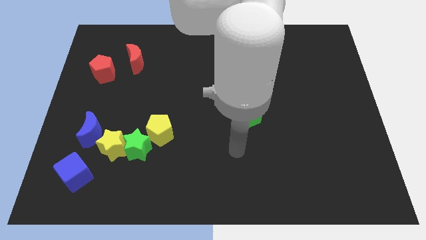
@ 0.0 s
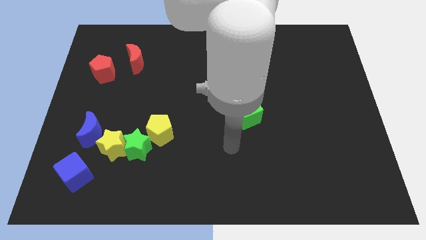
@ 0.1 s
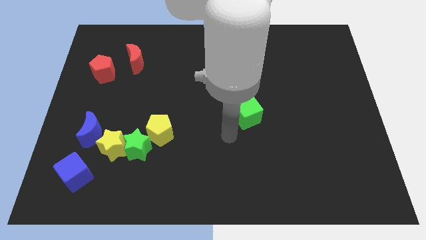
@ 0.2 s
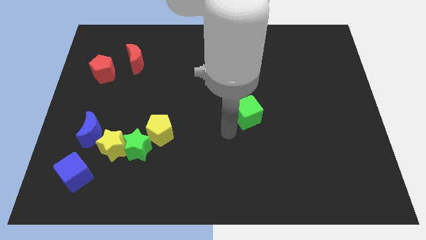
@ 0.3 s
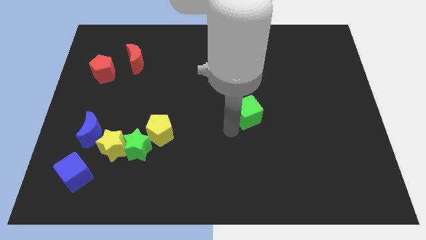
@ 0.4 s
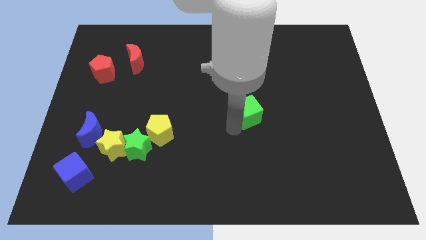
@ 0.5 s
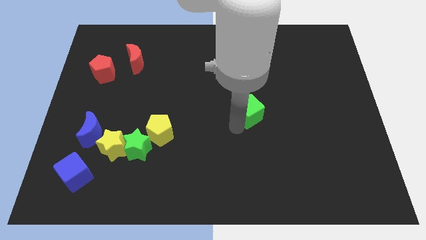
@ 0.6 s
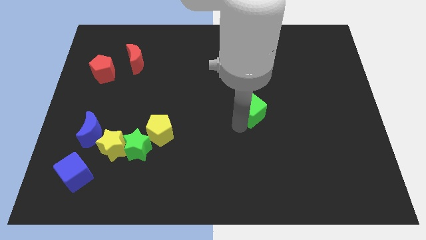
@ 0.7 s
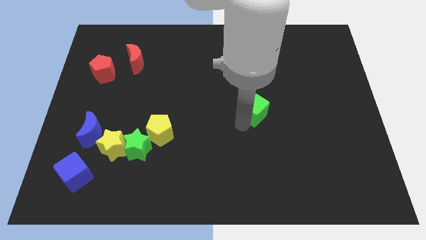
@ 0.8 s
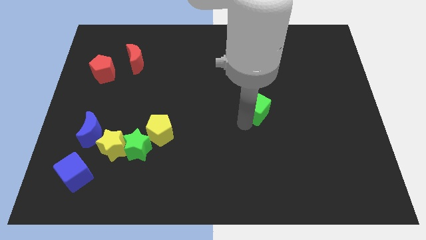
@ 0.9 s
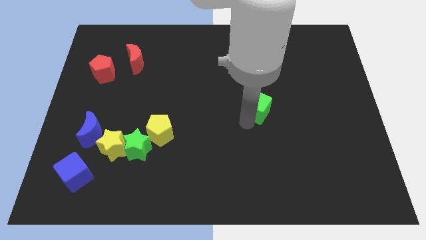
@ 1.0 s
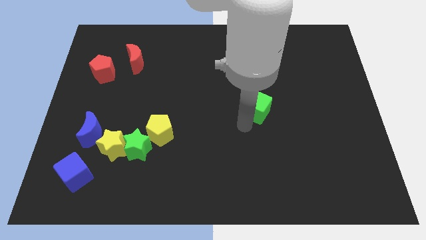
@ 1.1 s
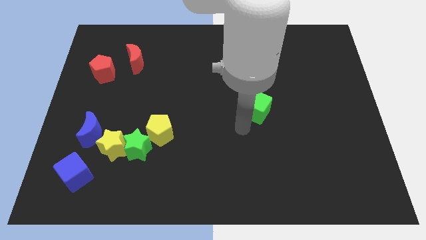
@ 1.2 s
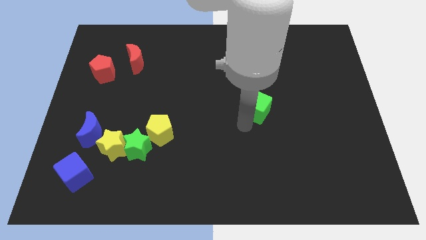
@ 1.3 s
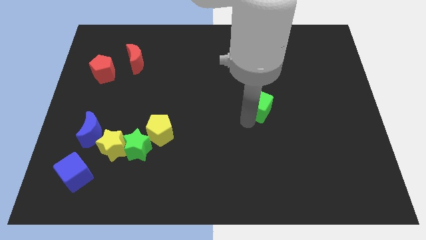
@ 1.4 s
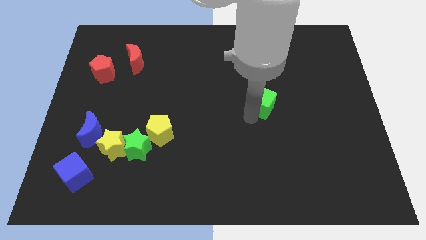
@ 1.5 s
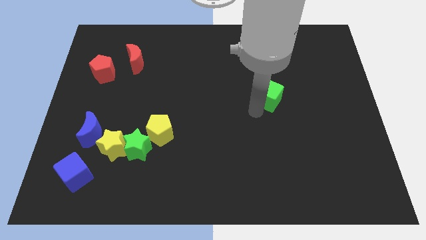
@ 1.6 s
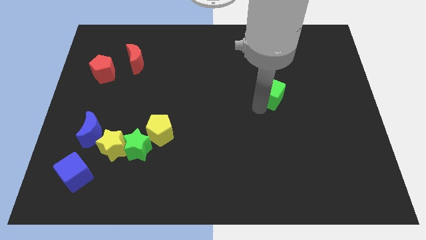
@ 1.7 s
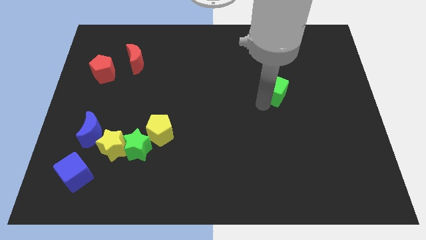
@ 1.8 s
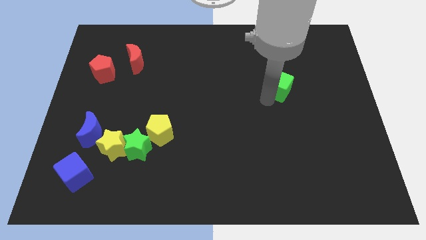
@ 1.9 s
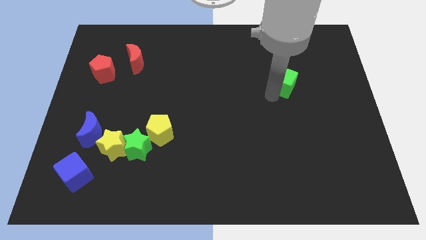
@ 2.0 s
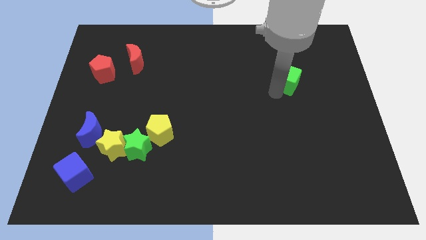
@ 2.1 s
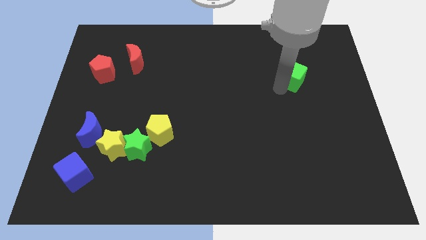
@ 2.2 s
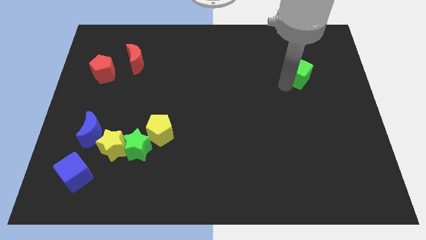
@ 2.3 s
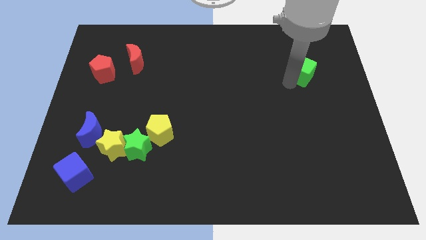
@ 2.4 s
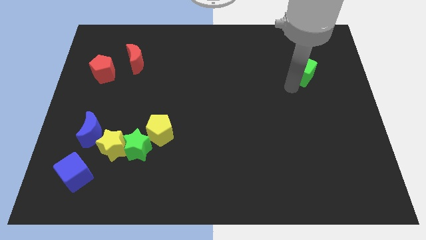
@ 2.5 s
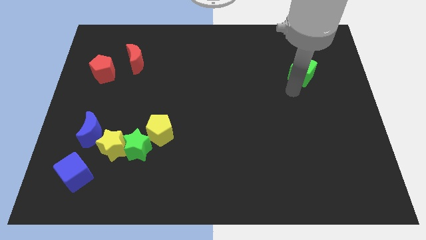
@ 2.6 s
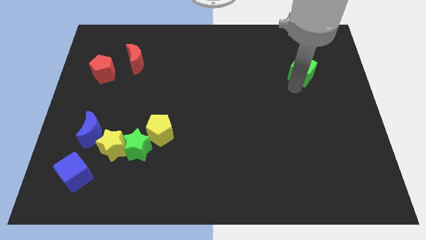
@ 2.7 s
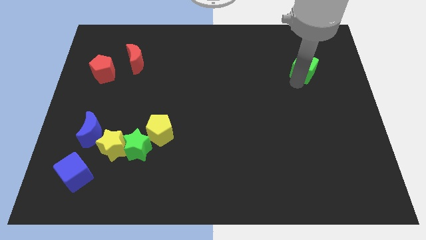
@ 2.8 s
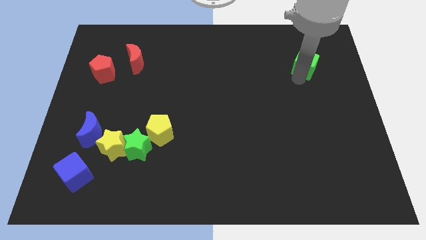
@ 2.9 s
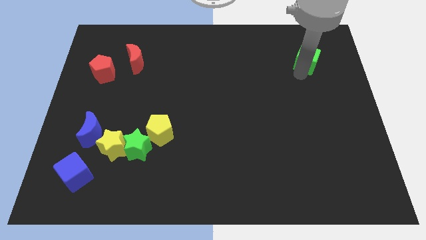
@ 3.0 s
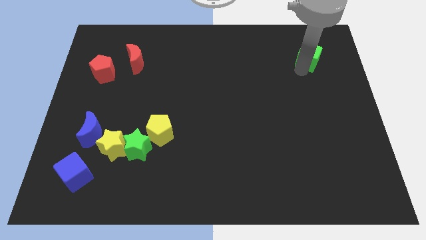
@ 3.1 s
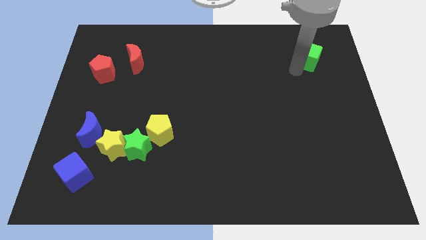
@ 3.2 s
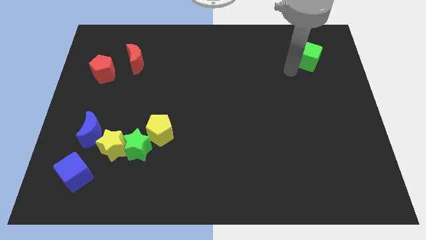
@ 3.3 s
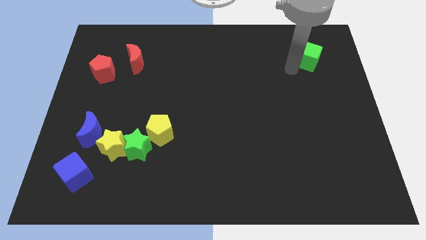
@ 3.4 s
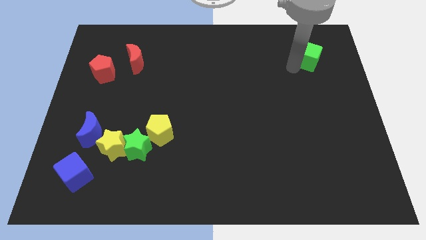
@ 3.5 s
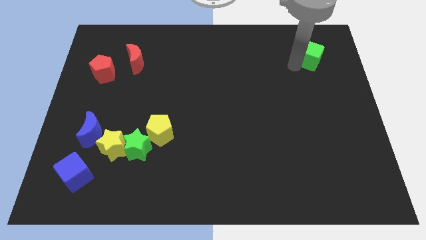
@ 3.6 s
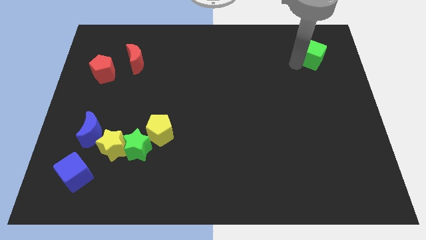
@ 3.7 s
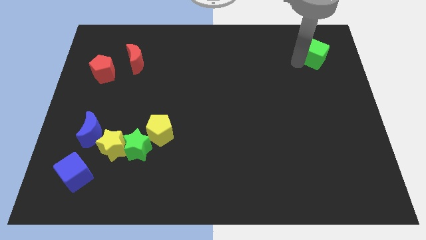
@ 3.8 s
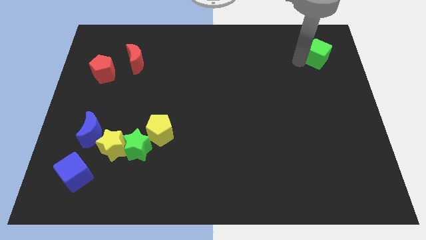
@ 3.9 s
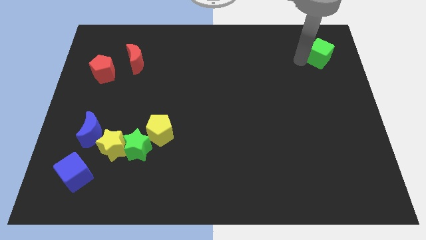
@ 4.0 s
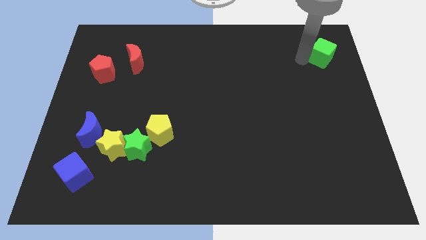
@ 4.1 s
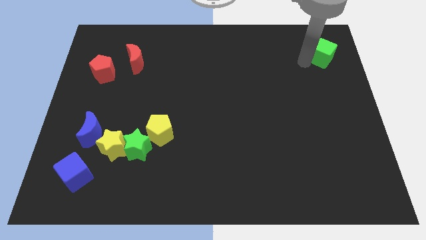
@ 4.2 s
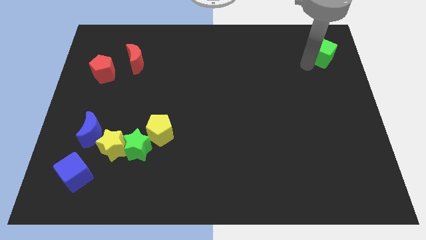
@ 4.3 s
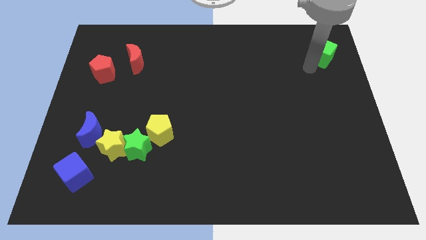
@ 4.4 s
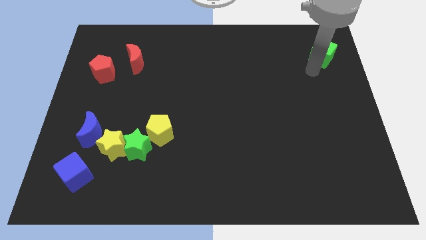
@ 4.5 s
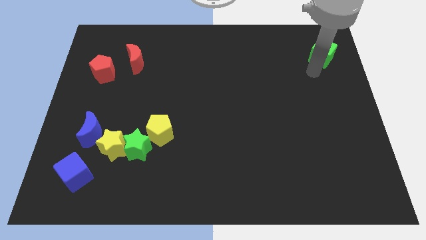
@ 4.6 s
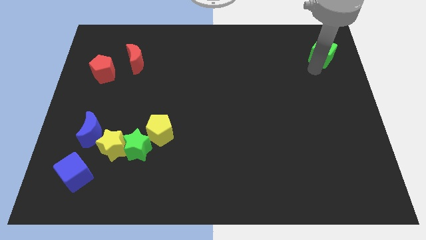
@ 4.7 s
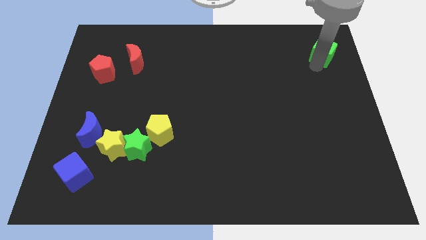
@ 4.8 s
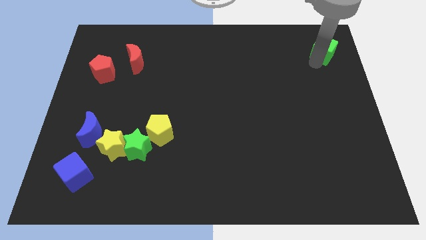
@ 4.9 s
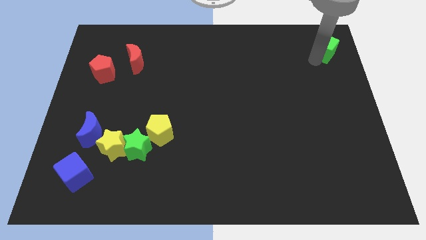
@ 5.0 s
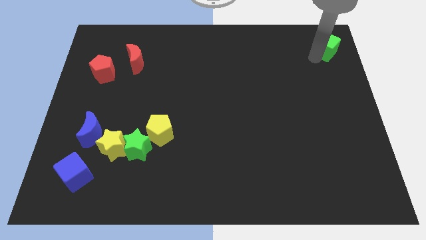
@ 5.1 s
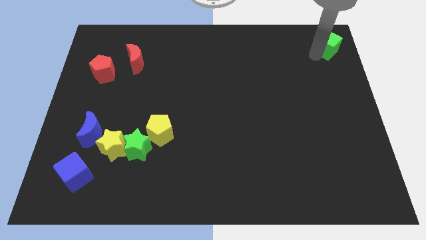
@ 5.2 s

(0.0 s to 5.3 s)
slide the green cube to the upper right corner
